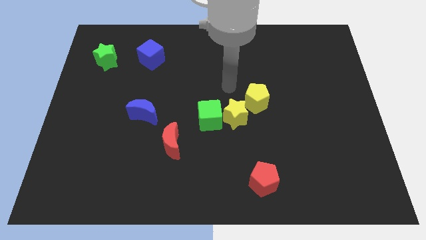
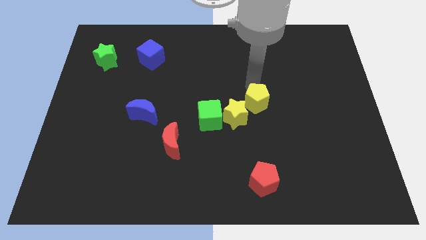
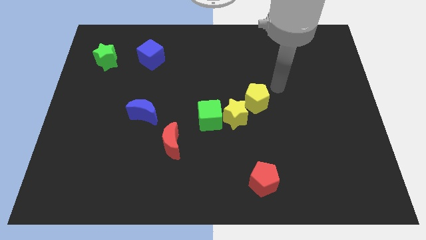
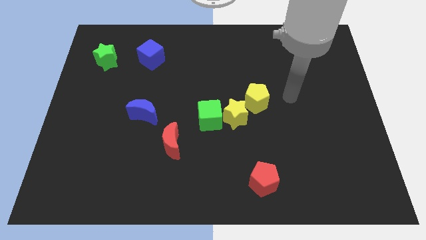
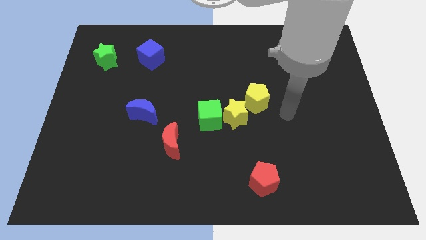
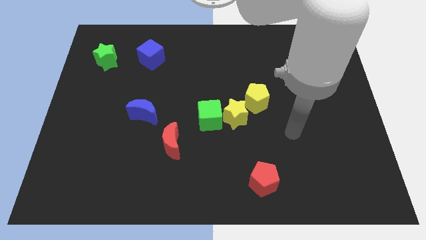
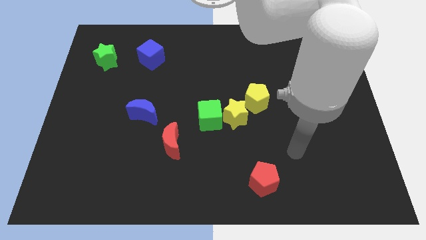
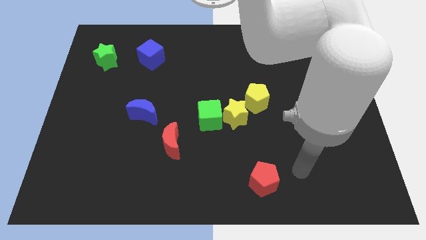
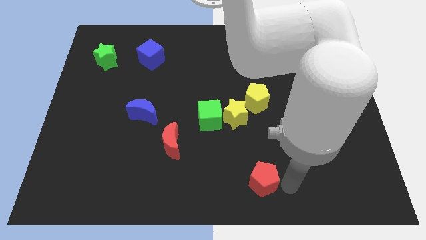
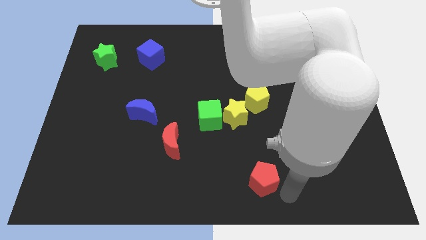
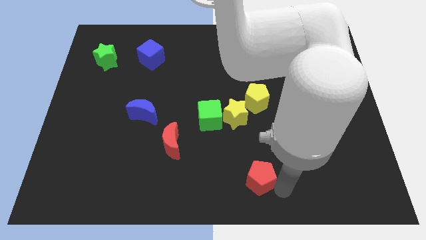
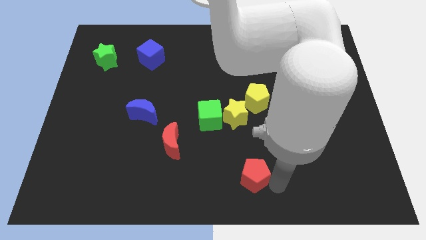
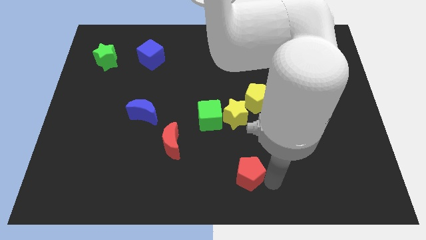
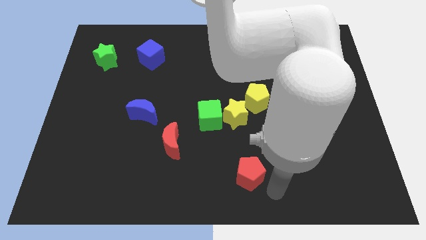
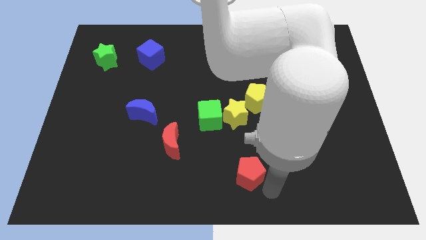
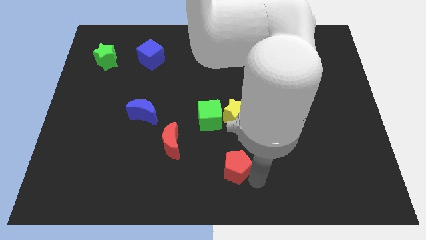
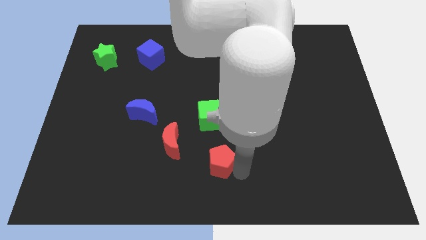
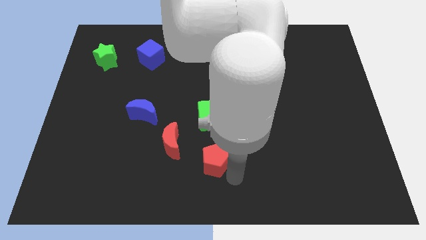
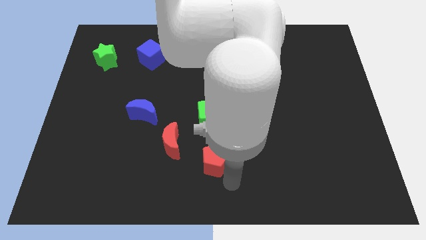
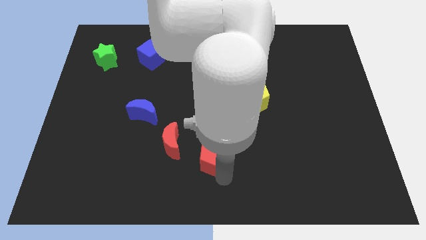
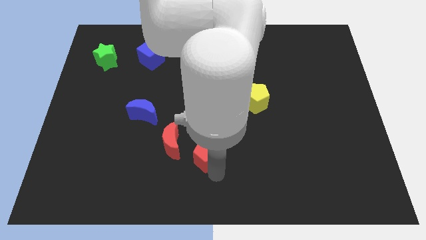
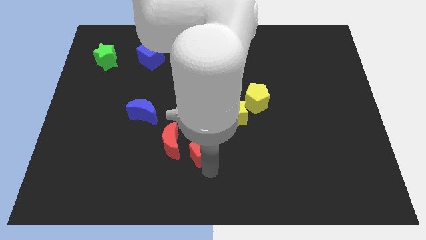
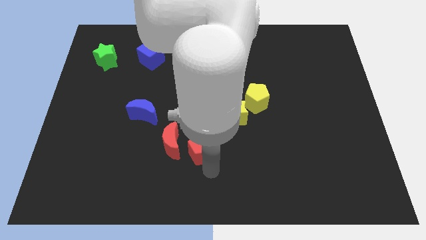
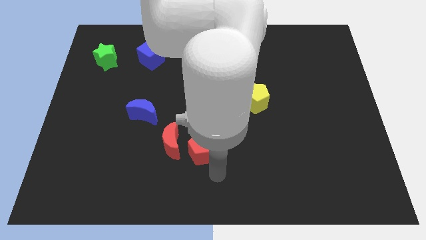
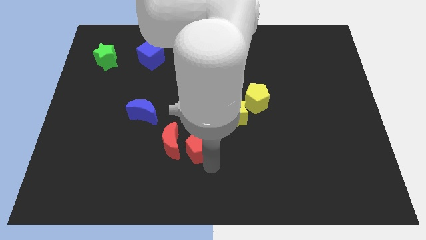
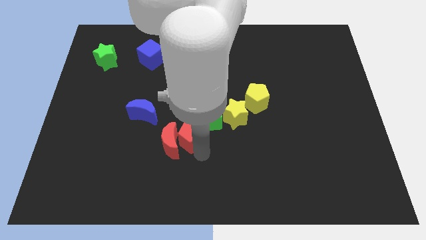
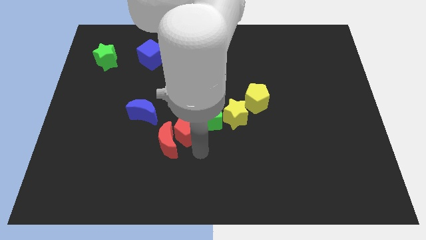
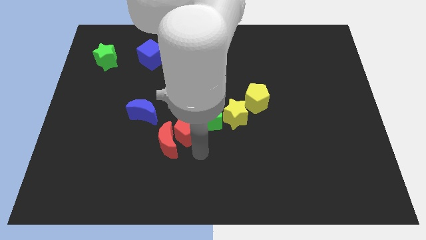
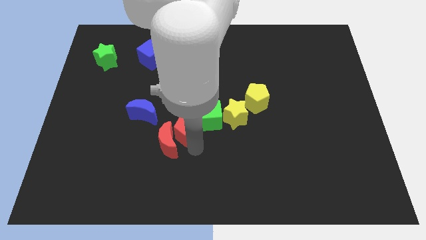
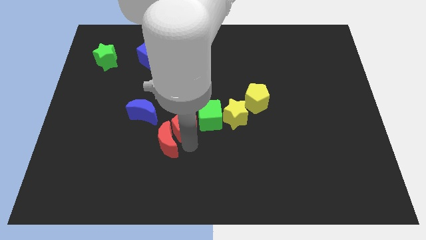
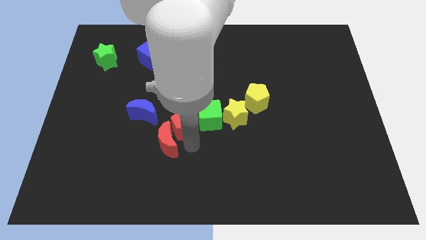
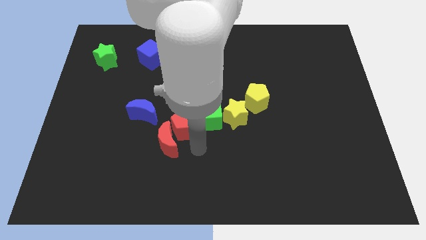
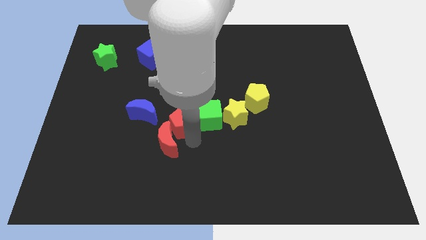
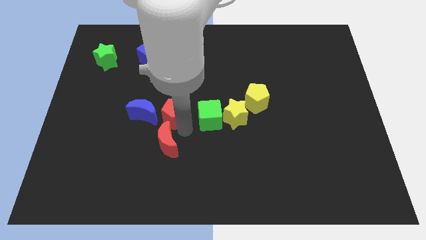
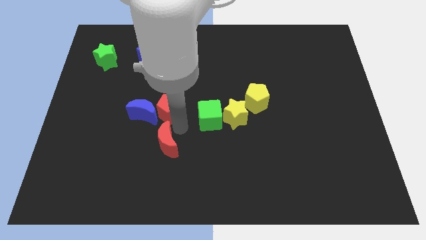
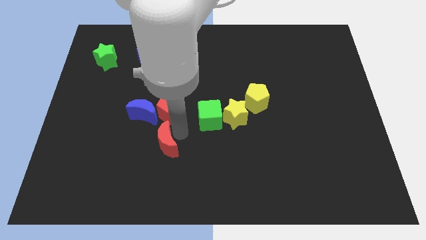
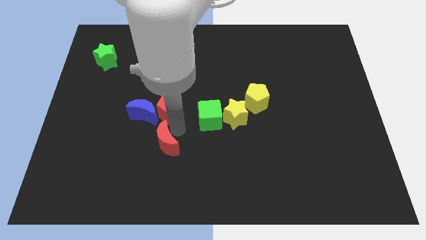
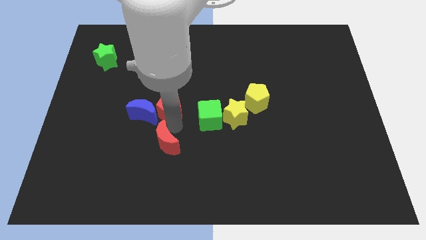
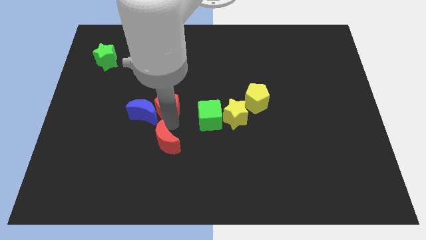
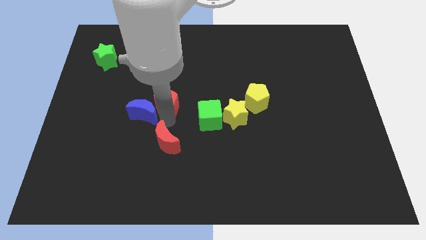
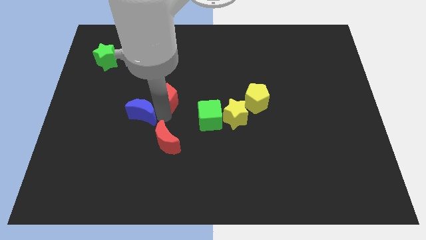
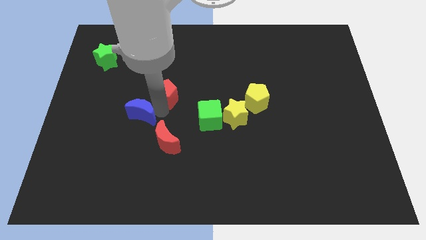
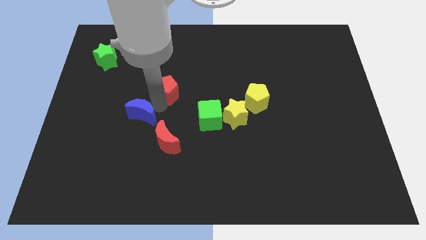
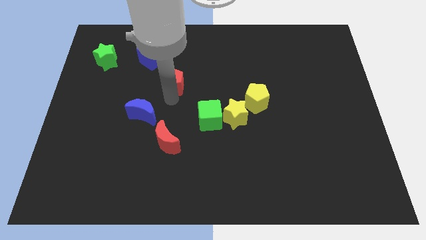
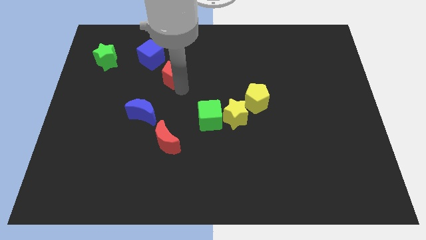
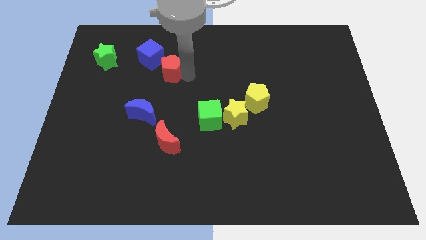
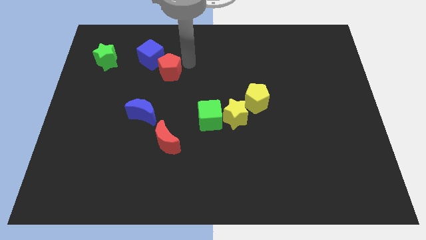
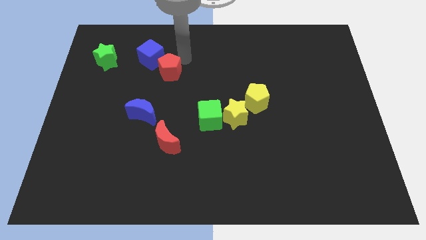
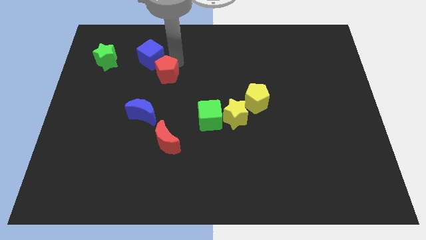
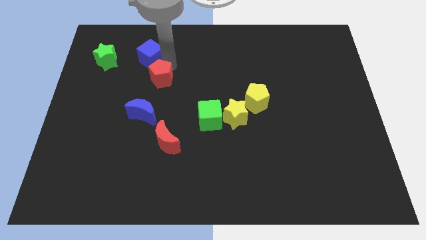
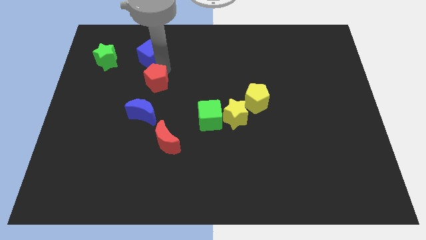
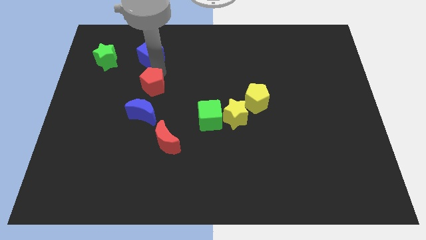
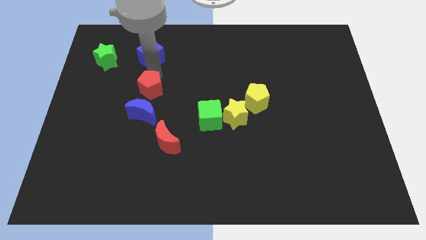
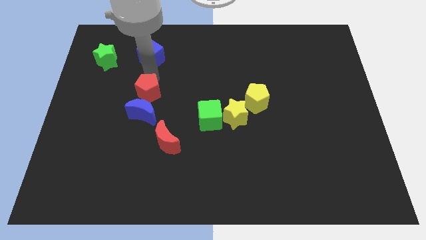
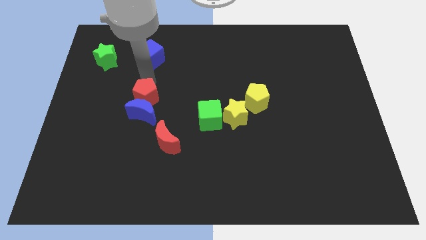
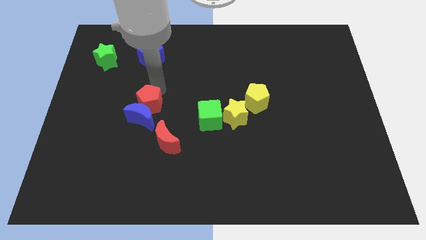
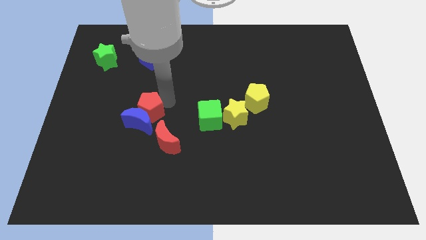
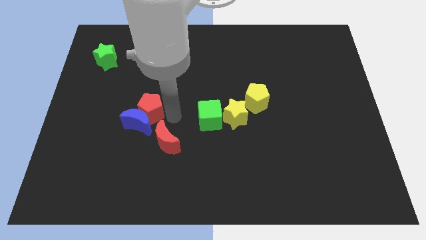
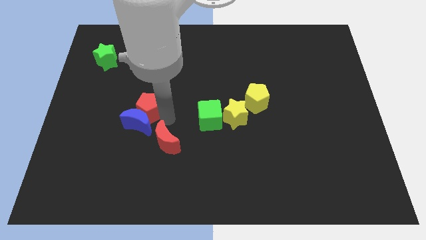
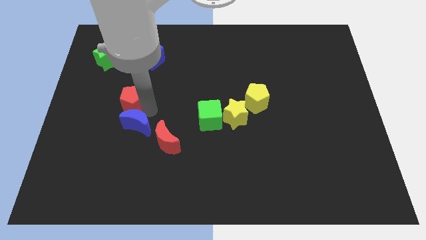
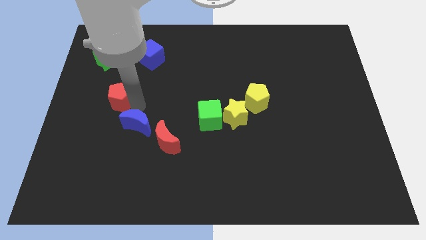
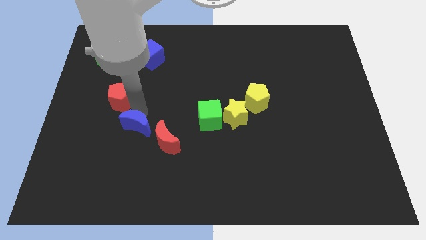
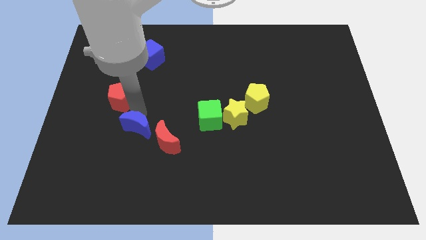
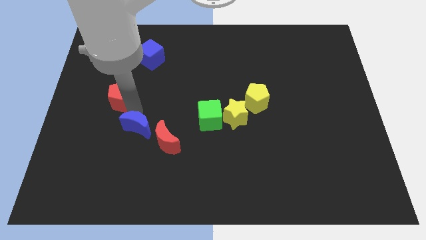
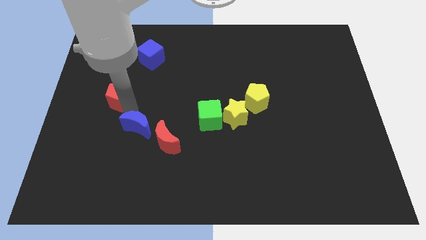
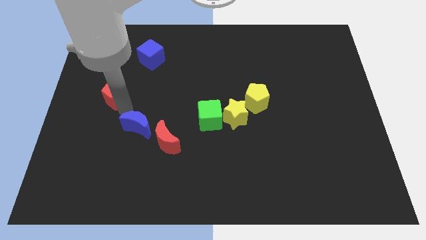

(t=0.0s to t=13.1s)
push the red pentagon below the green star
